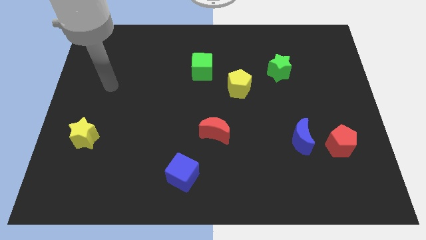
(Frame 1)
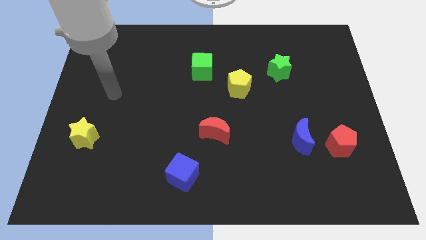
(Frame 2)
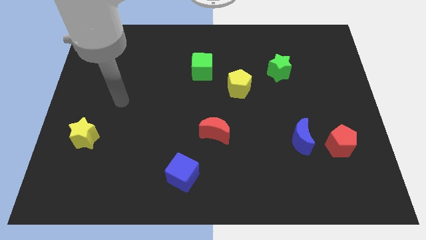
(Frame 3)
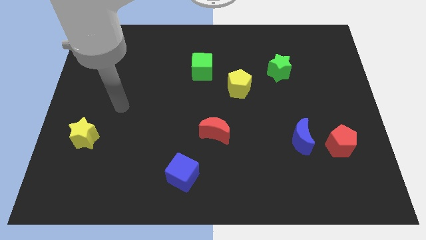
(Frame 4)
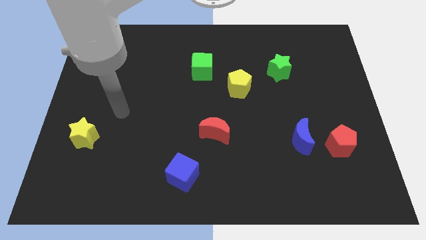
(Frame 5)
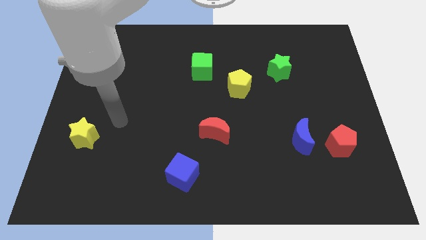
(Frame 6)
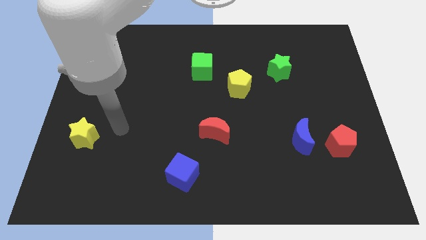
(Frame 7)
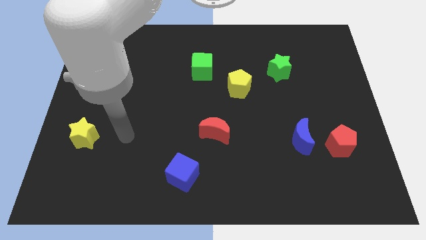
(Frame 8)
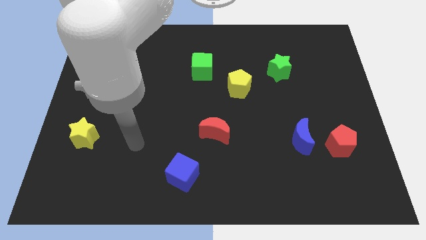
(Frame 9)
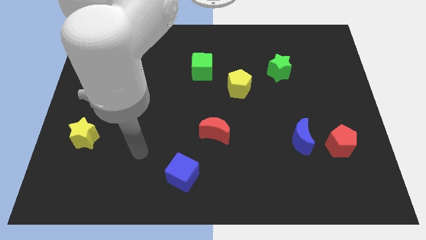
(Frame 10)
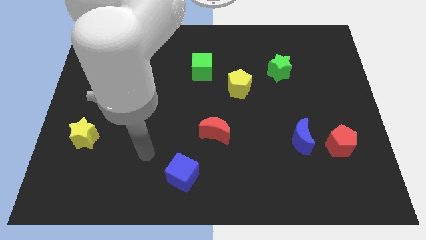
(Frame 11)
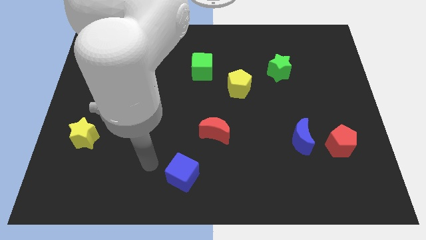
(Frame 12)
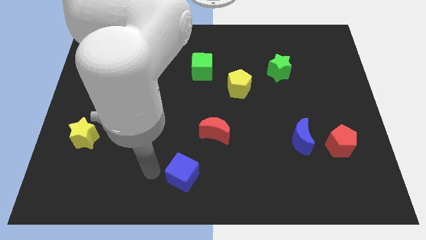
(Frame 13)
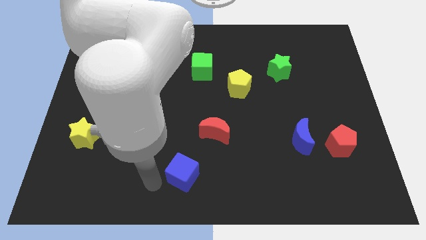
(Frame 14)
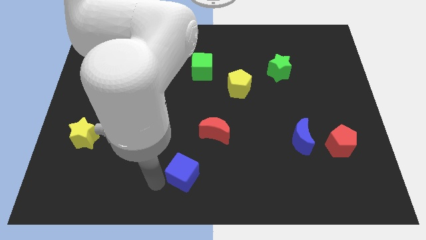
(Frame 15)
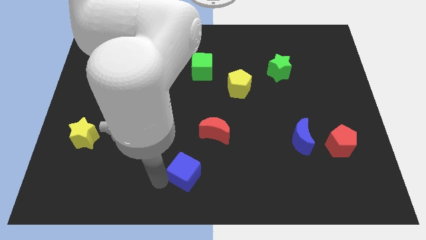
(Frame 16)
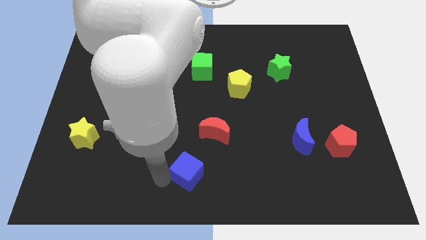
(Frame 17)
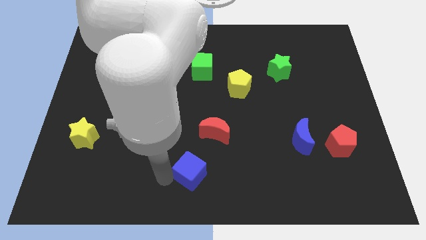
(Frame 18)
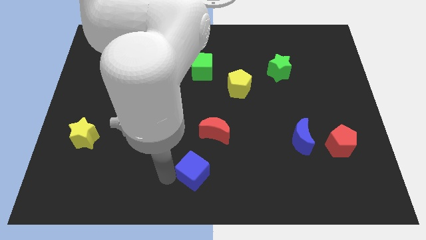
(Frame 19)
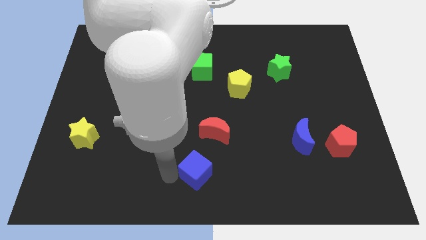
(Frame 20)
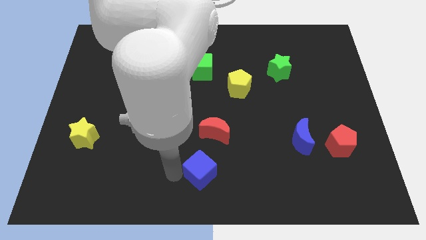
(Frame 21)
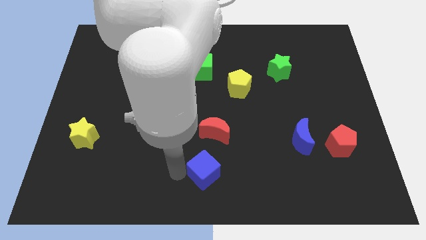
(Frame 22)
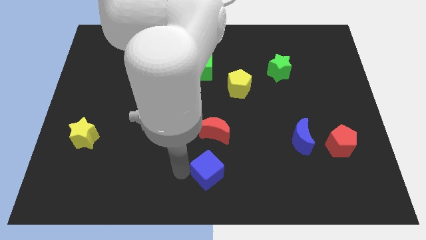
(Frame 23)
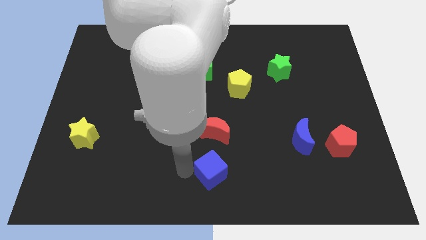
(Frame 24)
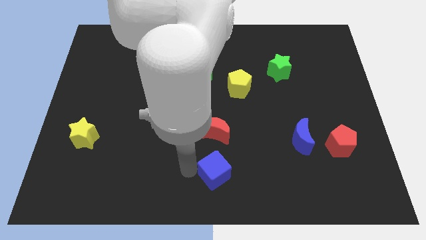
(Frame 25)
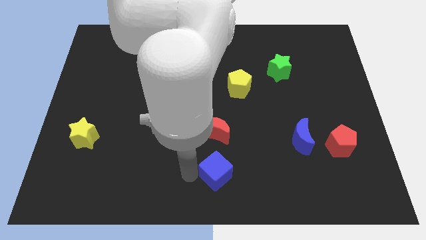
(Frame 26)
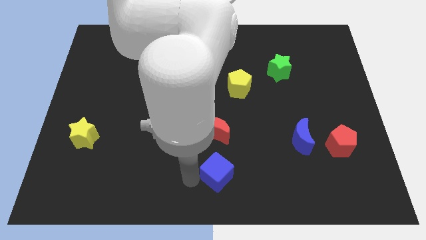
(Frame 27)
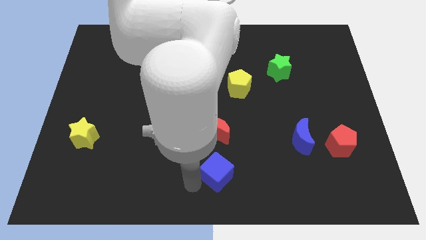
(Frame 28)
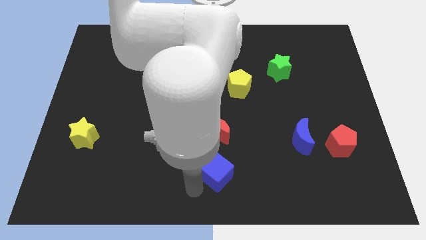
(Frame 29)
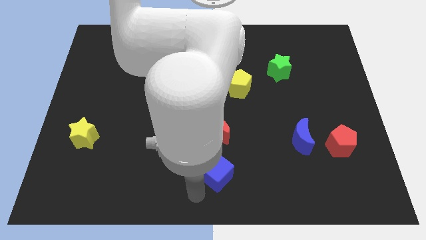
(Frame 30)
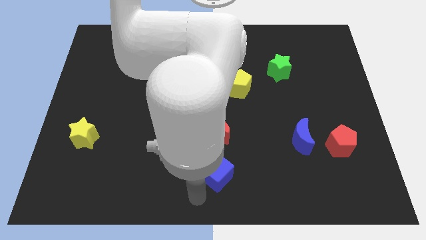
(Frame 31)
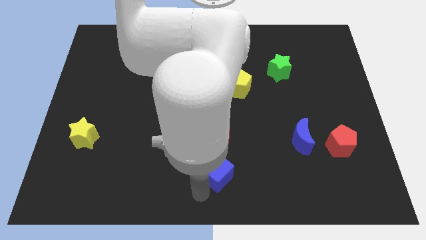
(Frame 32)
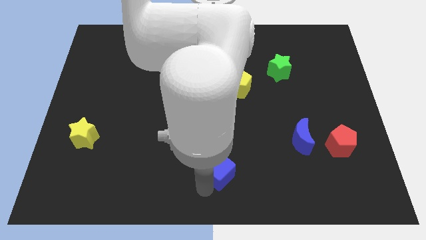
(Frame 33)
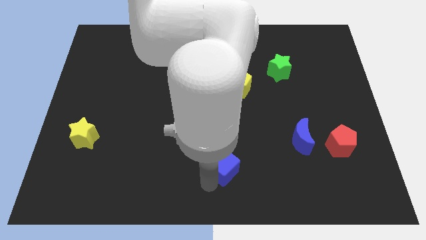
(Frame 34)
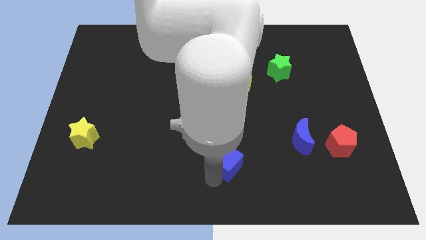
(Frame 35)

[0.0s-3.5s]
move the blue cube up and to the right somewhat

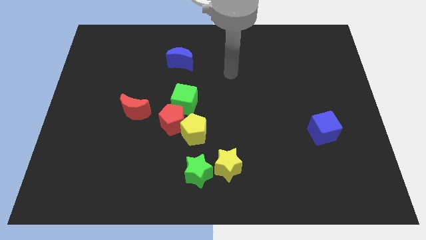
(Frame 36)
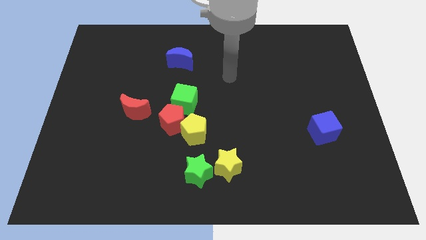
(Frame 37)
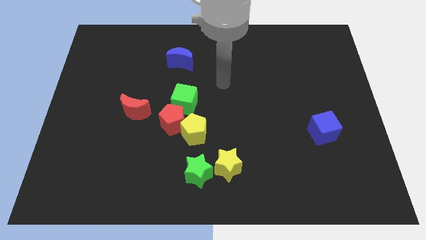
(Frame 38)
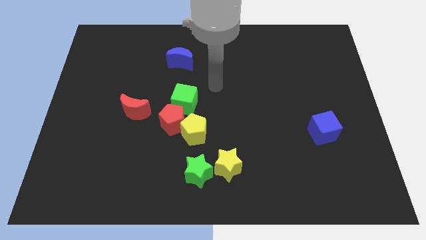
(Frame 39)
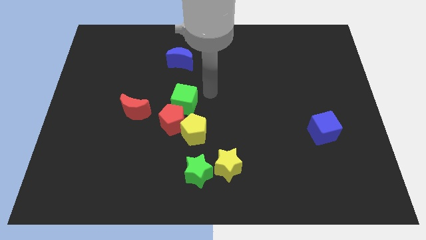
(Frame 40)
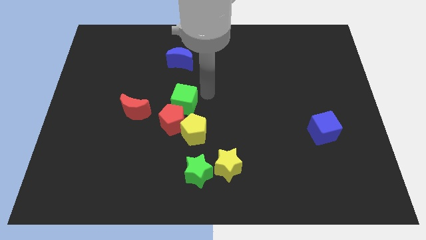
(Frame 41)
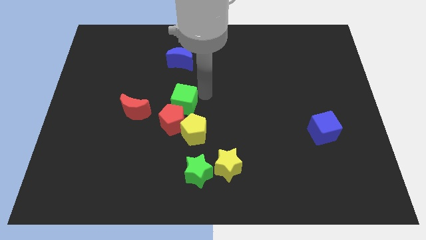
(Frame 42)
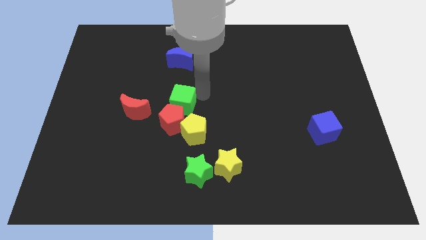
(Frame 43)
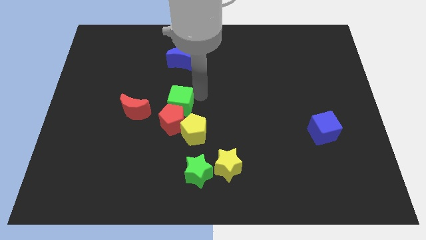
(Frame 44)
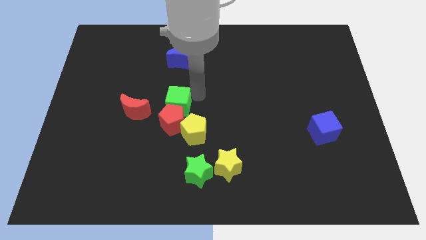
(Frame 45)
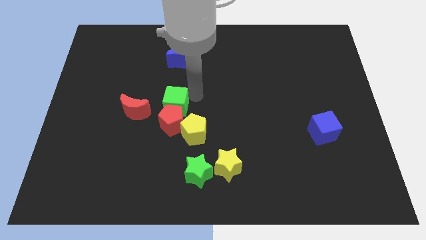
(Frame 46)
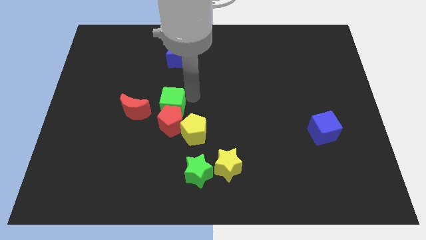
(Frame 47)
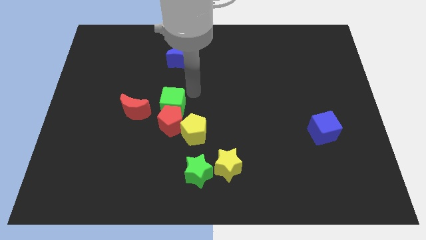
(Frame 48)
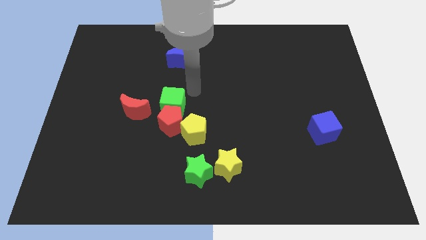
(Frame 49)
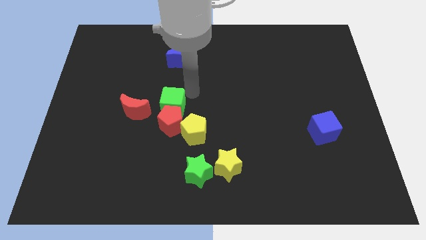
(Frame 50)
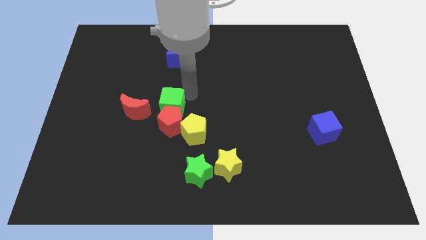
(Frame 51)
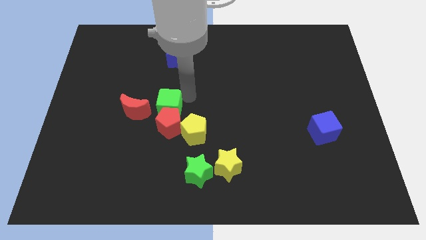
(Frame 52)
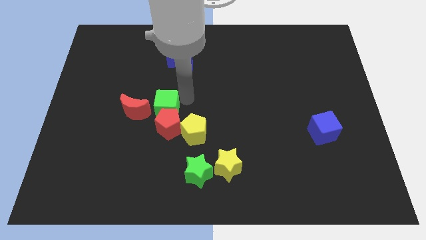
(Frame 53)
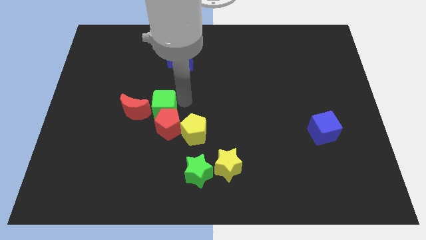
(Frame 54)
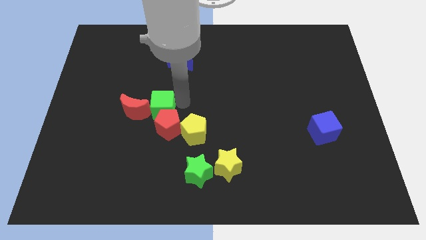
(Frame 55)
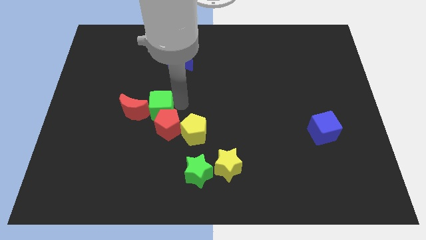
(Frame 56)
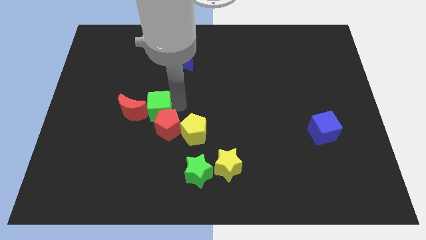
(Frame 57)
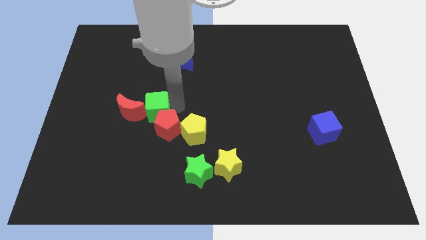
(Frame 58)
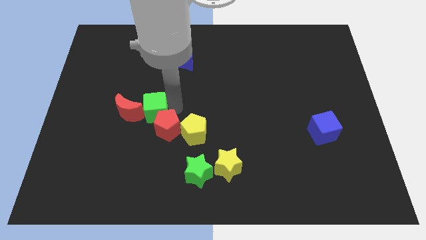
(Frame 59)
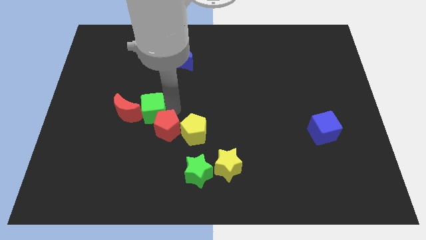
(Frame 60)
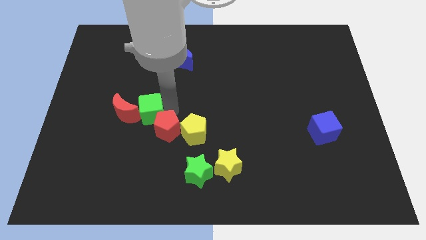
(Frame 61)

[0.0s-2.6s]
push the green cube diagonally down and left slightly

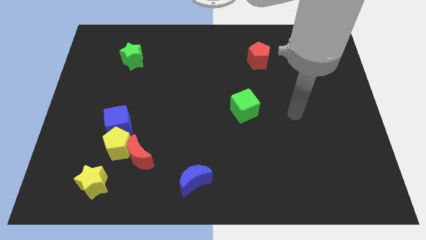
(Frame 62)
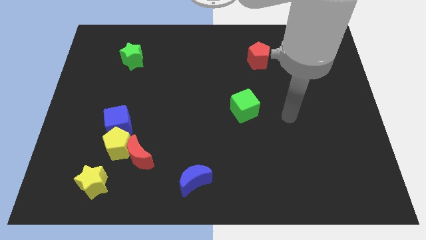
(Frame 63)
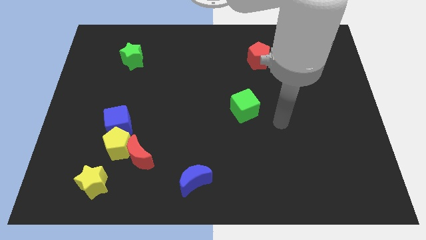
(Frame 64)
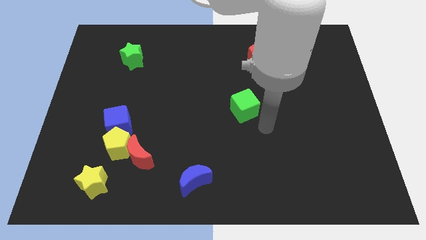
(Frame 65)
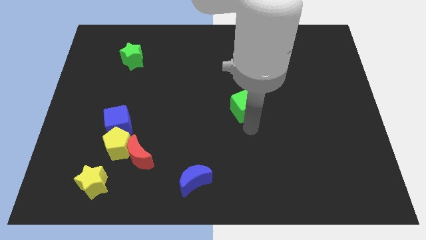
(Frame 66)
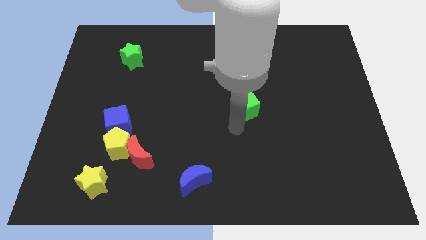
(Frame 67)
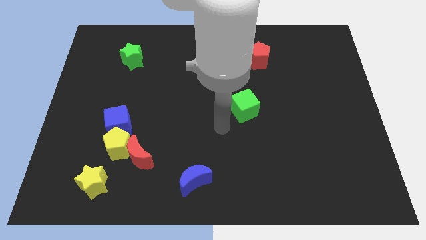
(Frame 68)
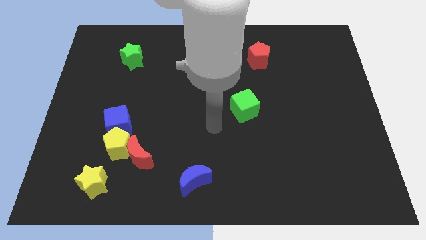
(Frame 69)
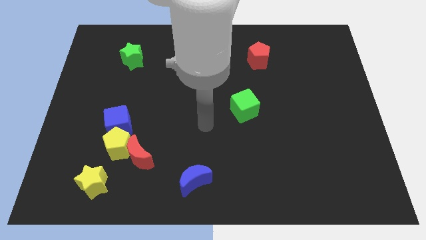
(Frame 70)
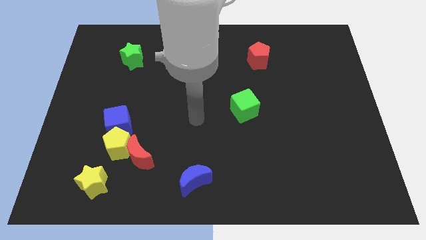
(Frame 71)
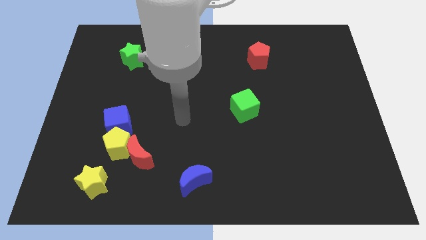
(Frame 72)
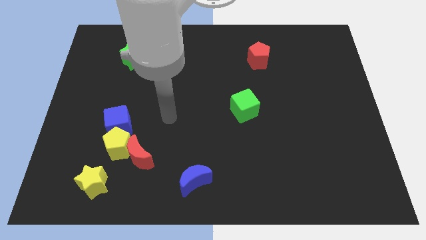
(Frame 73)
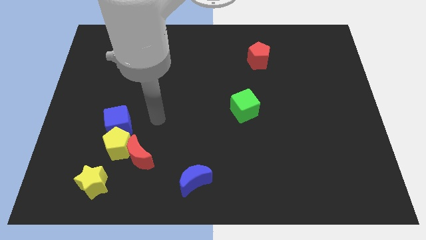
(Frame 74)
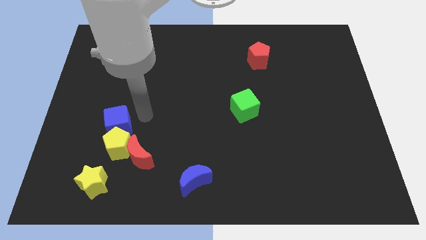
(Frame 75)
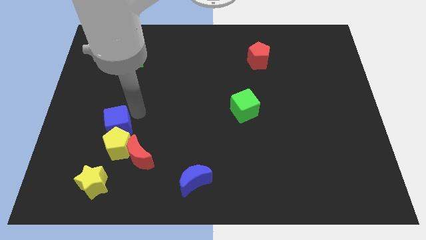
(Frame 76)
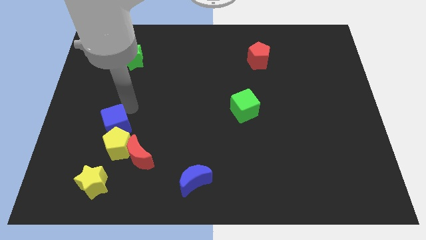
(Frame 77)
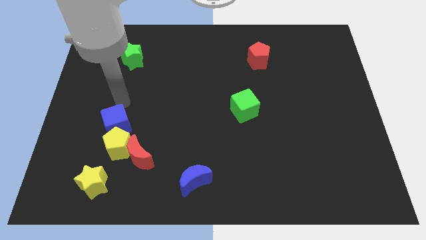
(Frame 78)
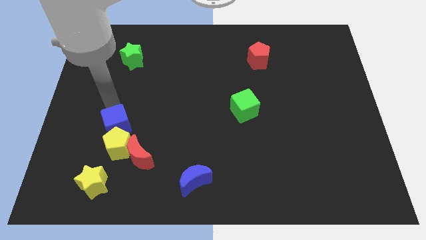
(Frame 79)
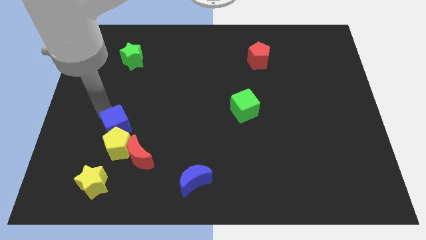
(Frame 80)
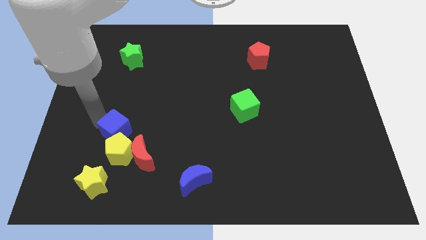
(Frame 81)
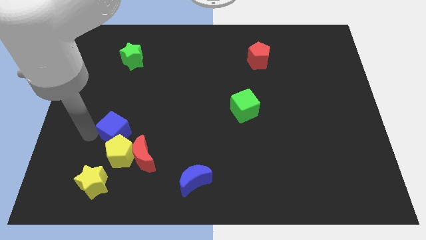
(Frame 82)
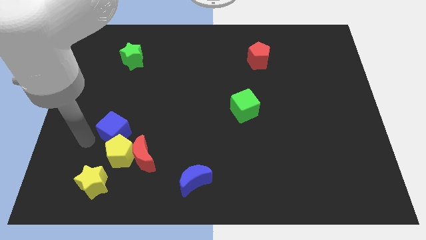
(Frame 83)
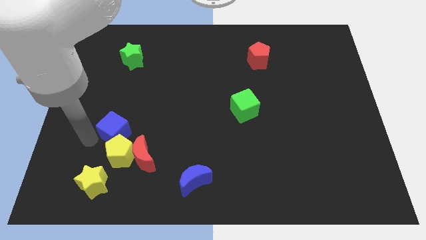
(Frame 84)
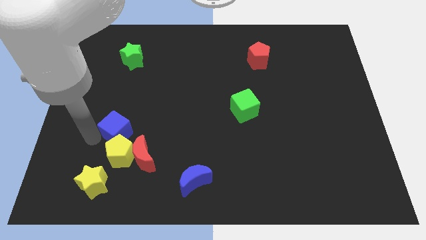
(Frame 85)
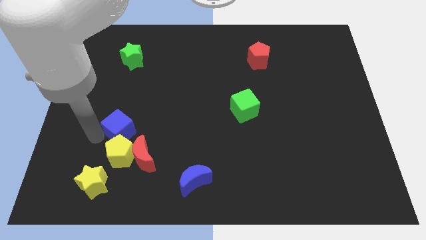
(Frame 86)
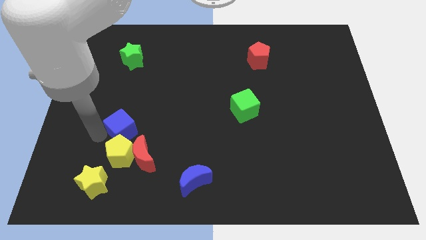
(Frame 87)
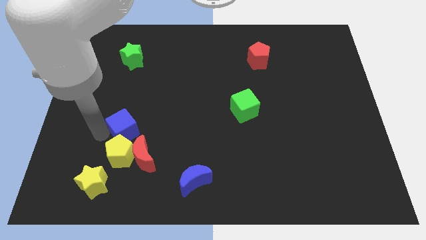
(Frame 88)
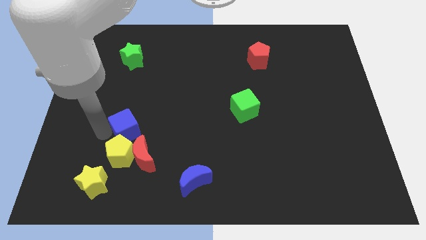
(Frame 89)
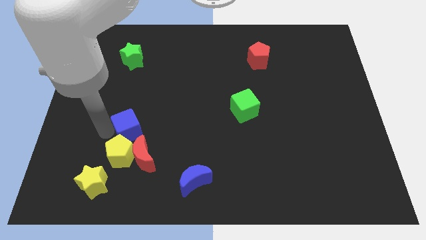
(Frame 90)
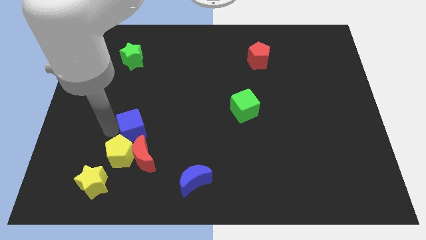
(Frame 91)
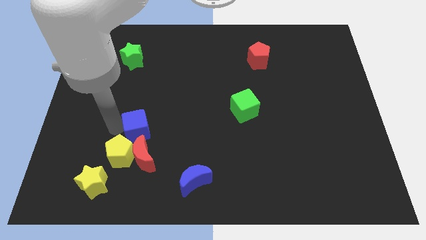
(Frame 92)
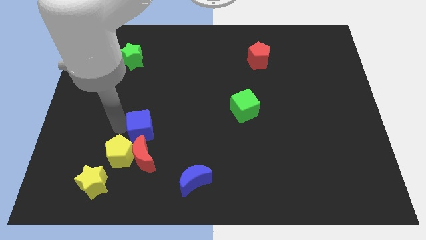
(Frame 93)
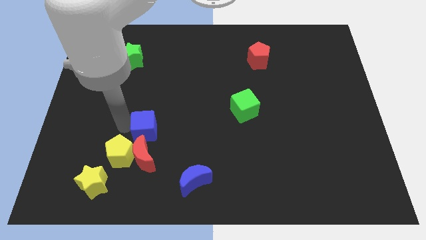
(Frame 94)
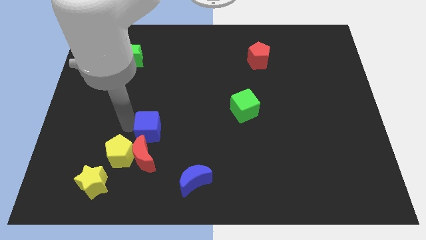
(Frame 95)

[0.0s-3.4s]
move the blue cube somewhat to the right
